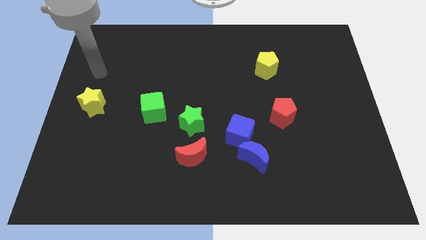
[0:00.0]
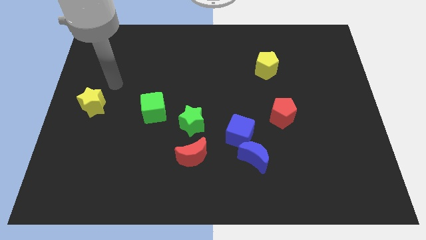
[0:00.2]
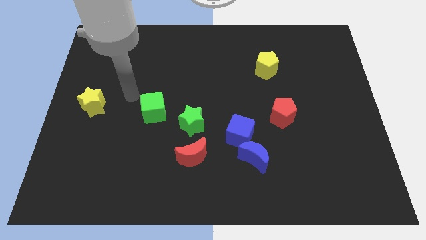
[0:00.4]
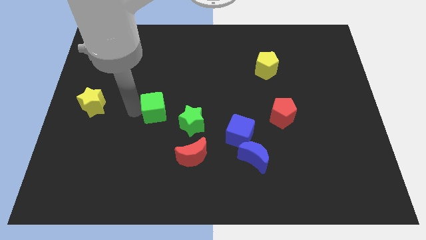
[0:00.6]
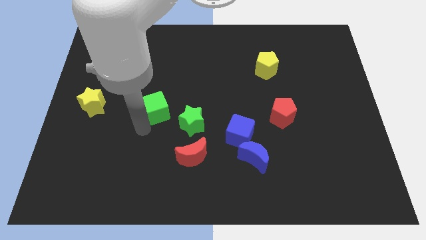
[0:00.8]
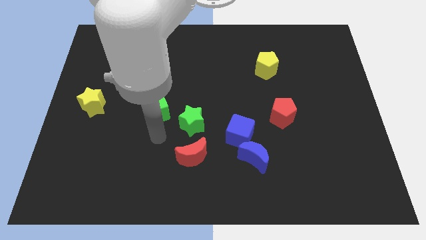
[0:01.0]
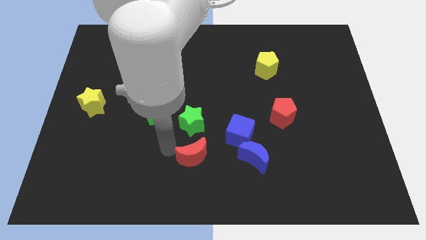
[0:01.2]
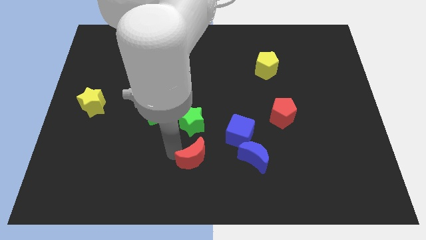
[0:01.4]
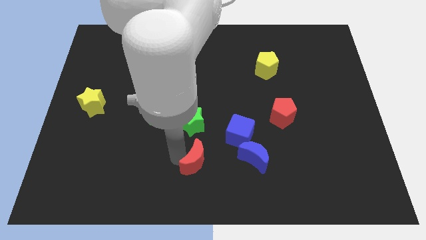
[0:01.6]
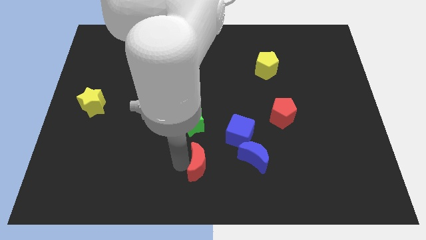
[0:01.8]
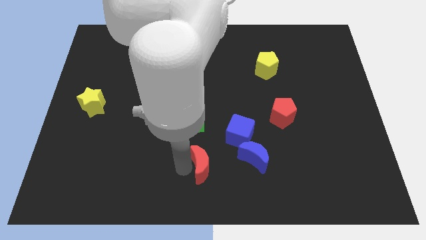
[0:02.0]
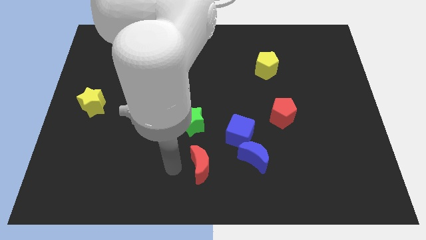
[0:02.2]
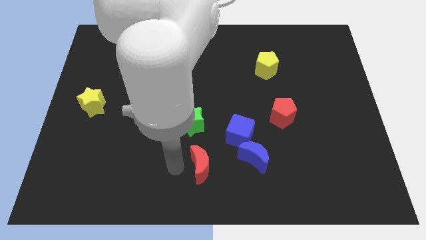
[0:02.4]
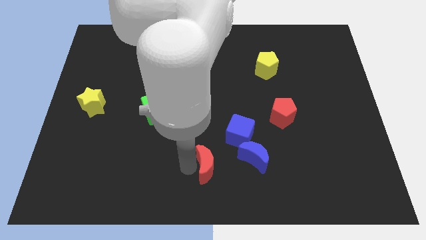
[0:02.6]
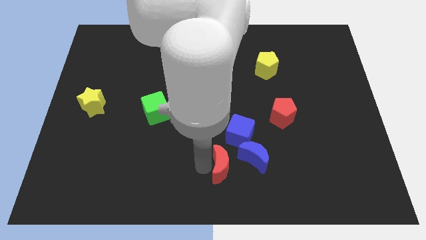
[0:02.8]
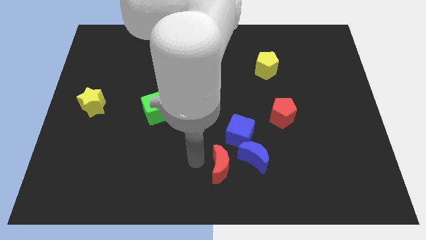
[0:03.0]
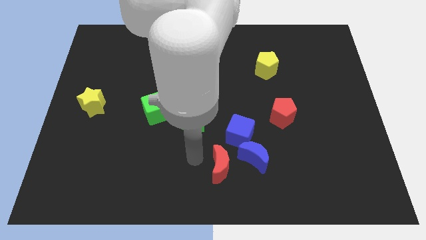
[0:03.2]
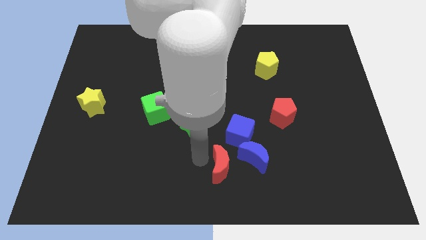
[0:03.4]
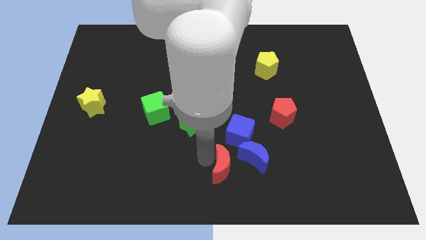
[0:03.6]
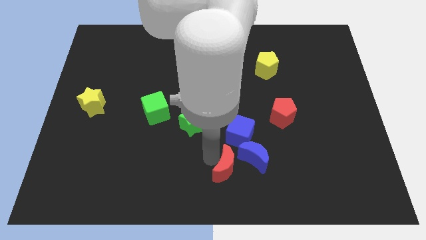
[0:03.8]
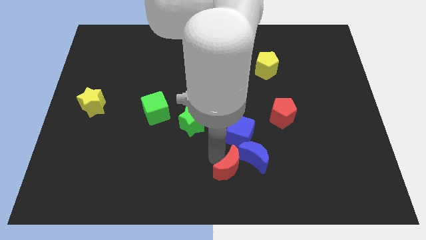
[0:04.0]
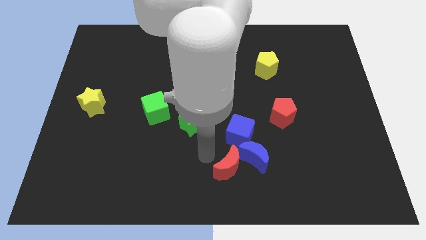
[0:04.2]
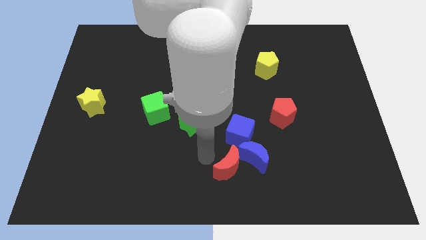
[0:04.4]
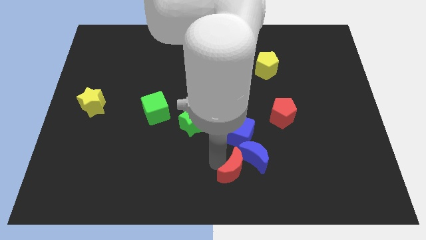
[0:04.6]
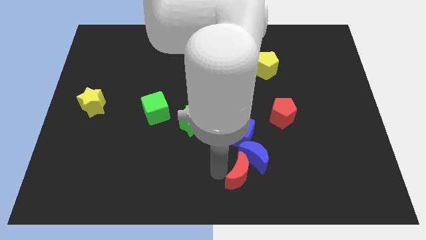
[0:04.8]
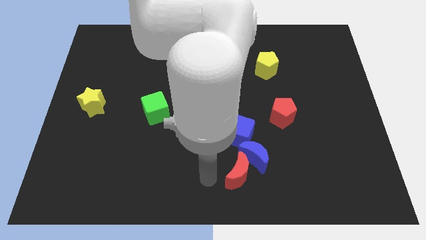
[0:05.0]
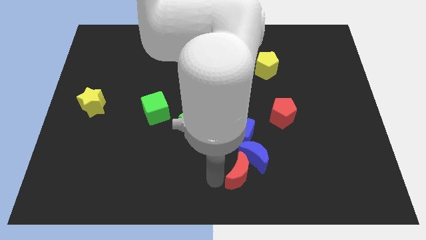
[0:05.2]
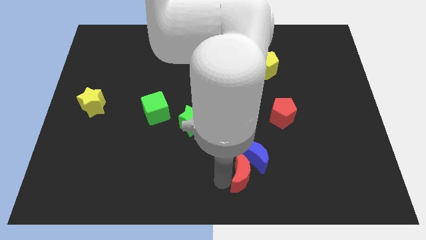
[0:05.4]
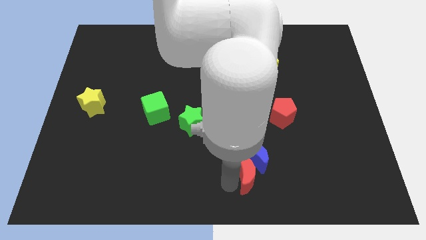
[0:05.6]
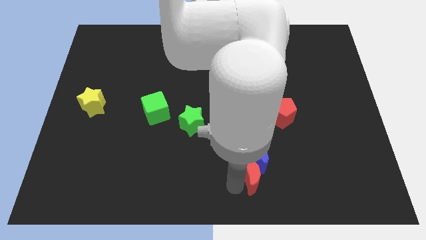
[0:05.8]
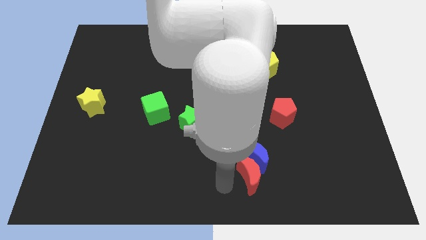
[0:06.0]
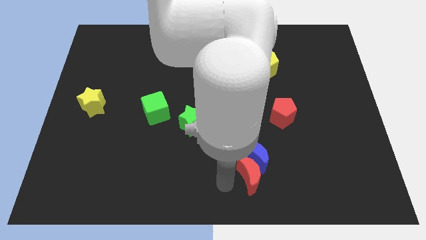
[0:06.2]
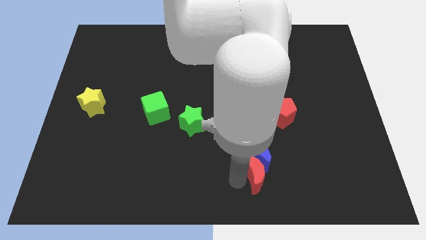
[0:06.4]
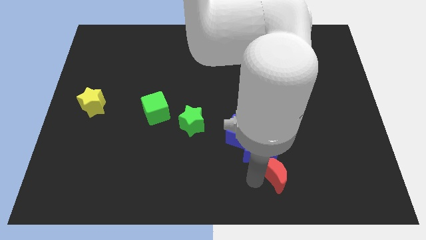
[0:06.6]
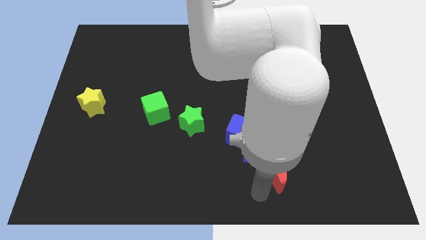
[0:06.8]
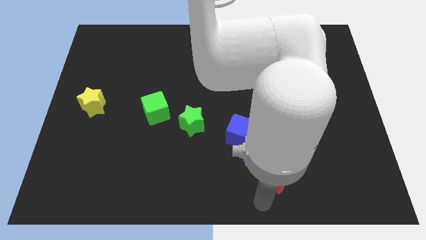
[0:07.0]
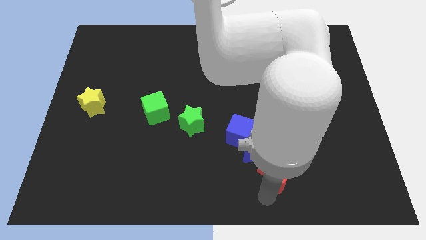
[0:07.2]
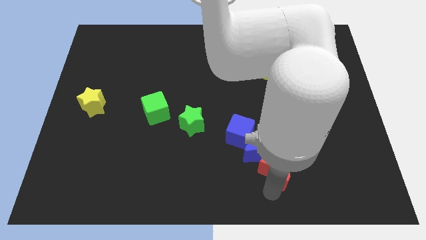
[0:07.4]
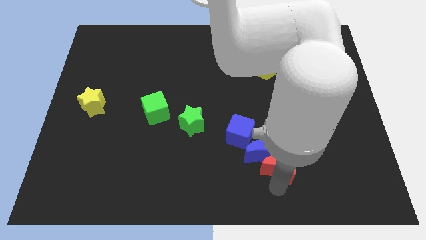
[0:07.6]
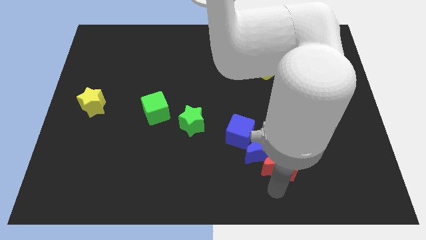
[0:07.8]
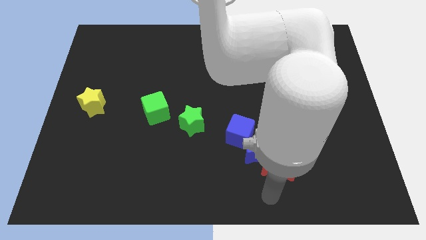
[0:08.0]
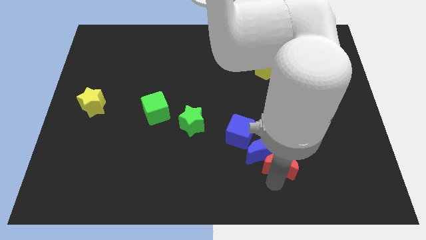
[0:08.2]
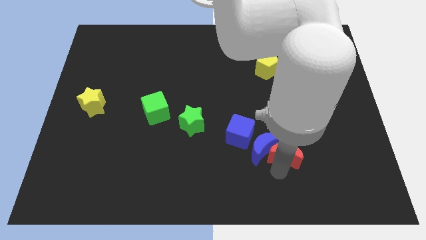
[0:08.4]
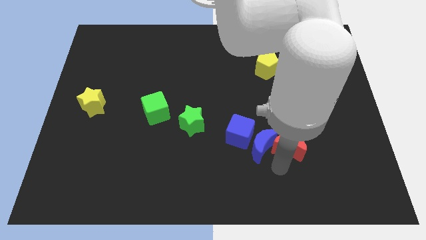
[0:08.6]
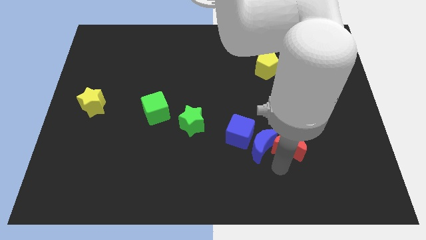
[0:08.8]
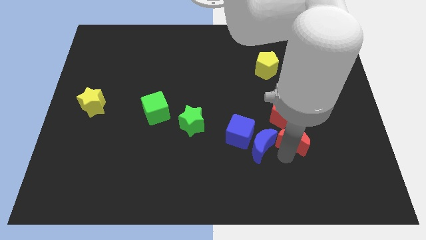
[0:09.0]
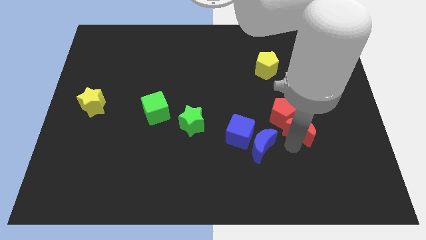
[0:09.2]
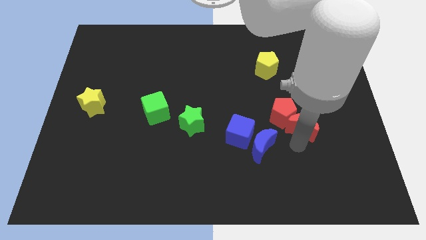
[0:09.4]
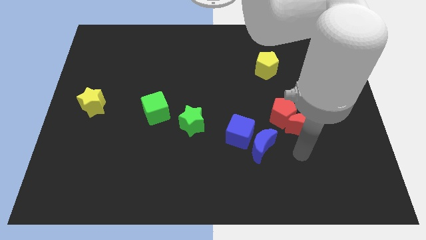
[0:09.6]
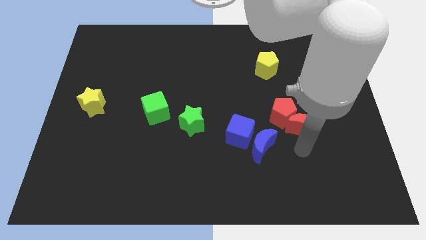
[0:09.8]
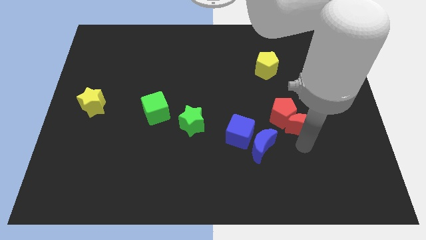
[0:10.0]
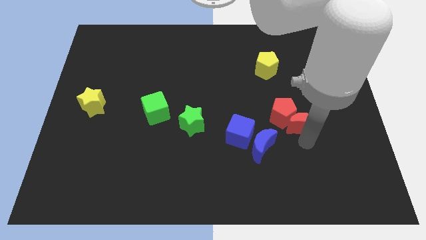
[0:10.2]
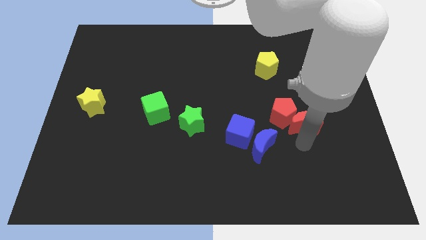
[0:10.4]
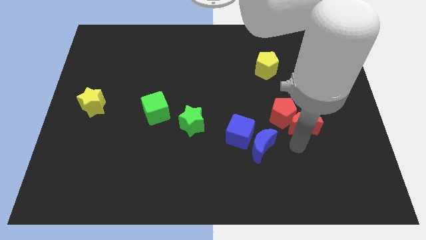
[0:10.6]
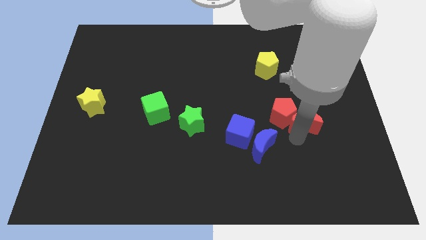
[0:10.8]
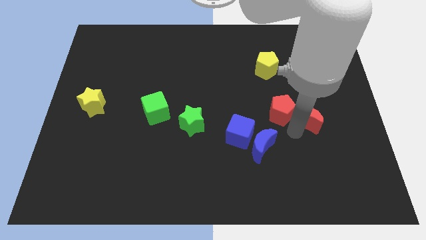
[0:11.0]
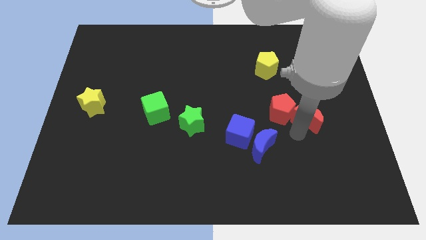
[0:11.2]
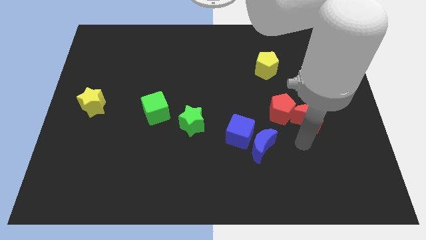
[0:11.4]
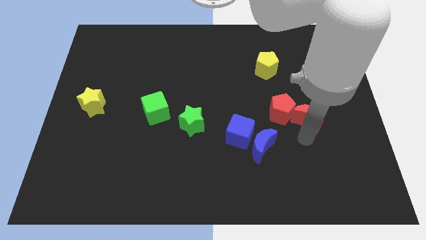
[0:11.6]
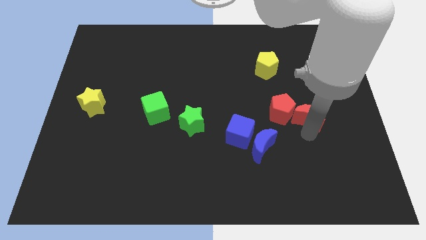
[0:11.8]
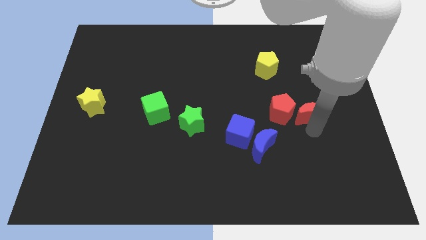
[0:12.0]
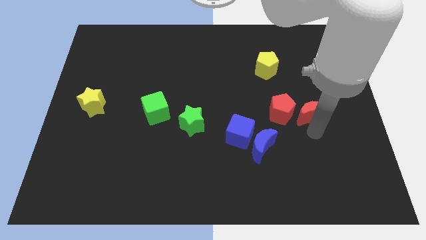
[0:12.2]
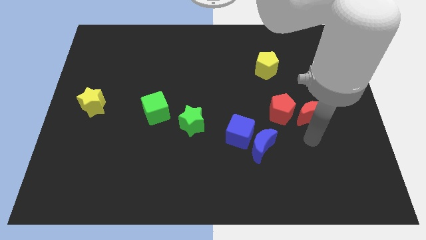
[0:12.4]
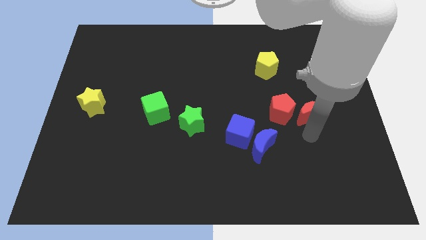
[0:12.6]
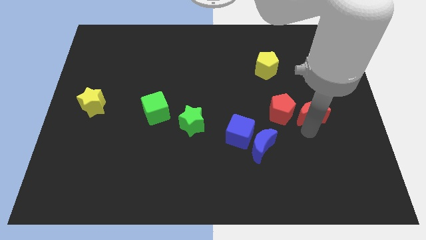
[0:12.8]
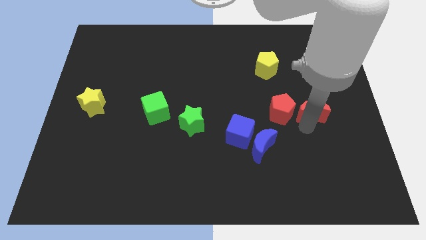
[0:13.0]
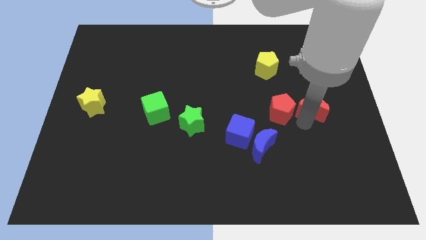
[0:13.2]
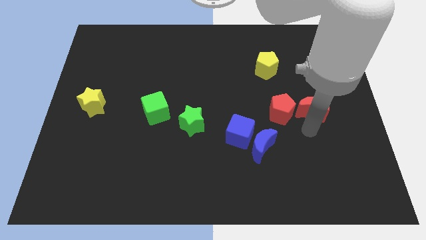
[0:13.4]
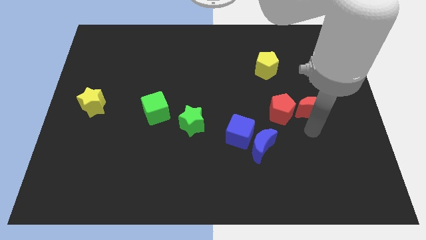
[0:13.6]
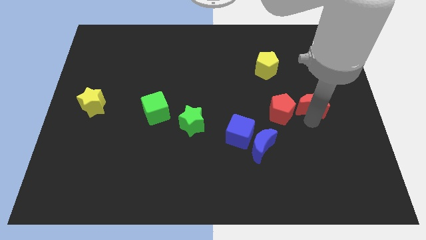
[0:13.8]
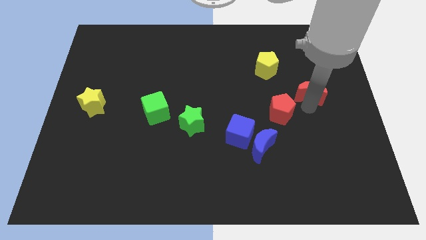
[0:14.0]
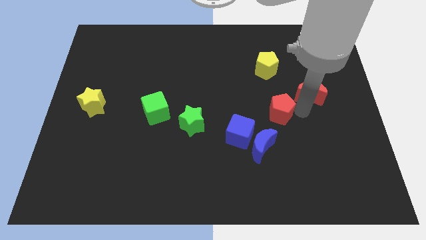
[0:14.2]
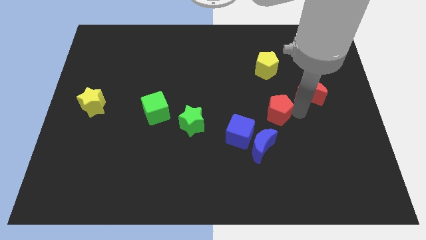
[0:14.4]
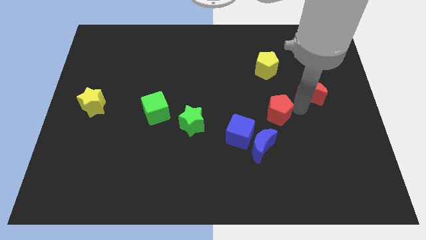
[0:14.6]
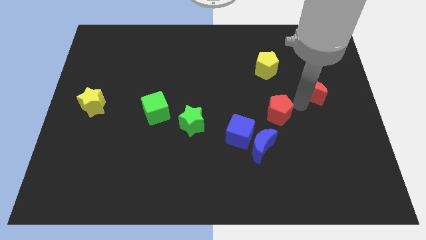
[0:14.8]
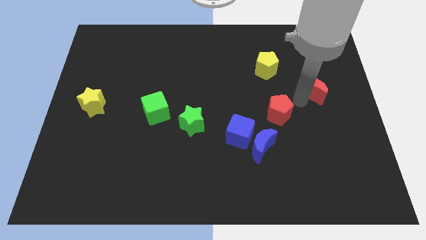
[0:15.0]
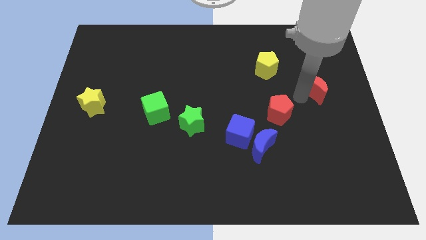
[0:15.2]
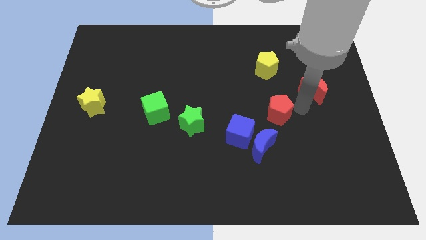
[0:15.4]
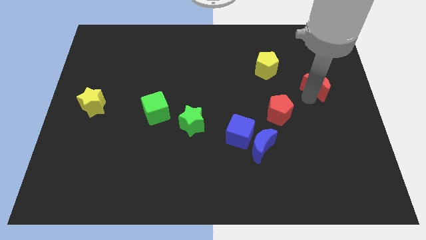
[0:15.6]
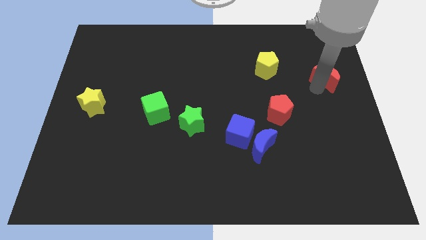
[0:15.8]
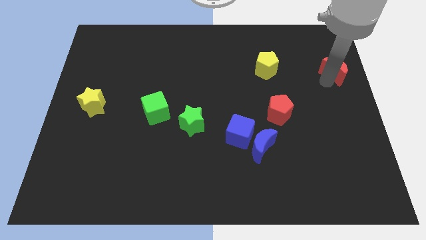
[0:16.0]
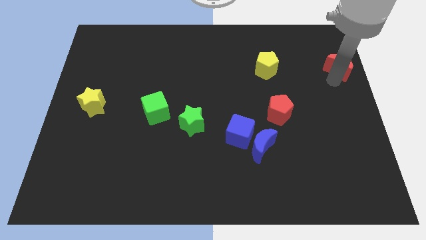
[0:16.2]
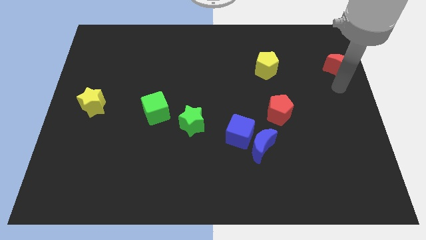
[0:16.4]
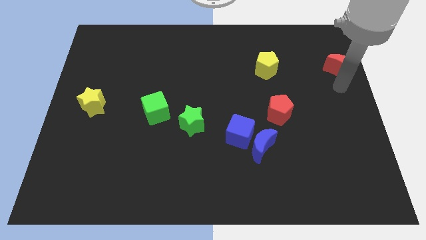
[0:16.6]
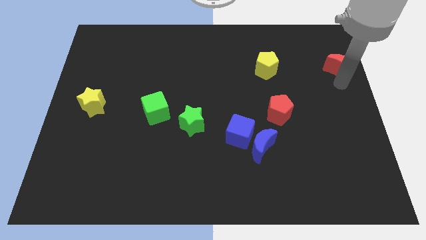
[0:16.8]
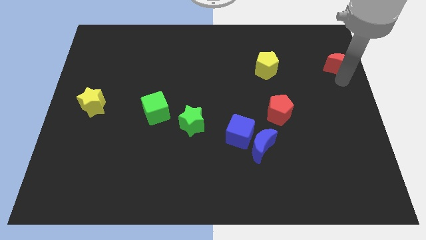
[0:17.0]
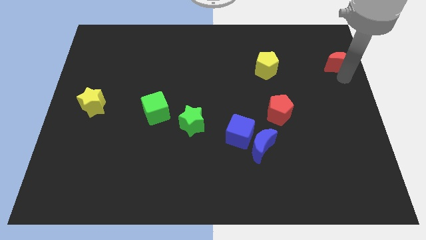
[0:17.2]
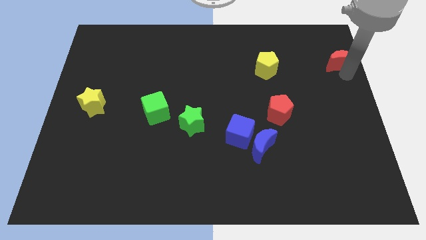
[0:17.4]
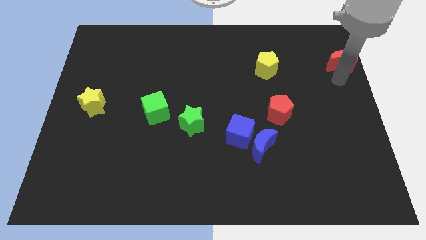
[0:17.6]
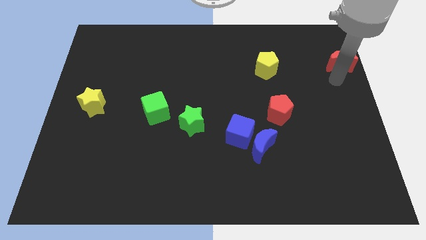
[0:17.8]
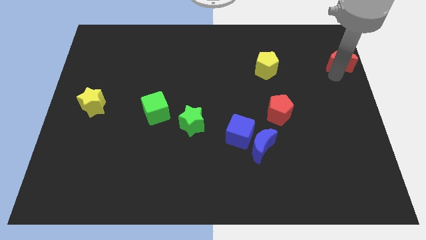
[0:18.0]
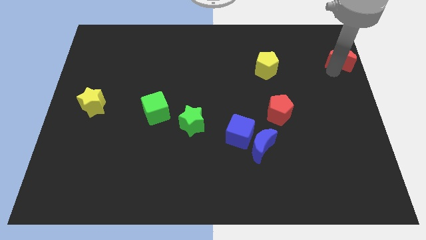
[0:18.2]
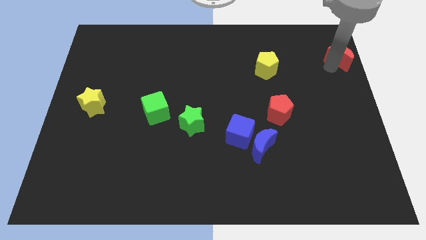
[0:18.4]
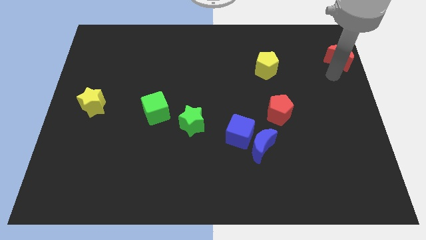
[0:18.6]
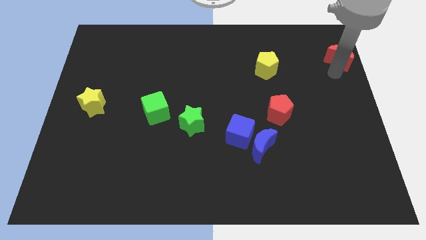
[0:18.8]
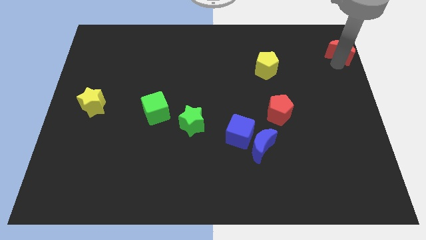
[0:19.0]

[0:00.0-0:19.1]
slide the red moon to the top right of the board
